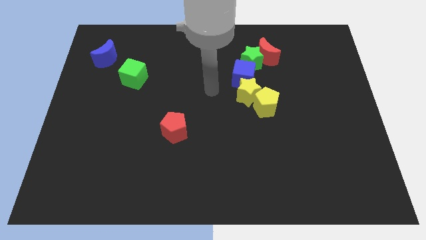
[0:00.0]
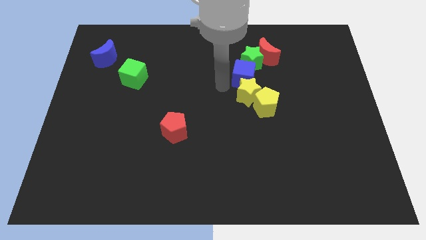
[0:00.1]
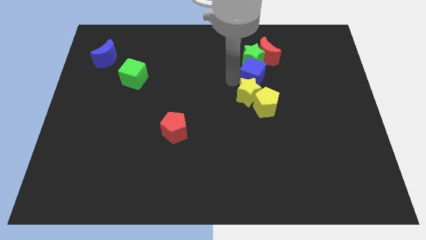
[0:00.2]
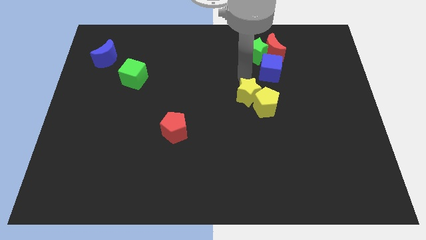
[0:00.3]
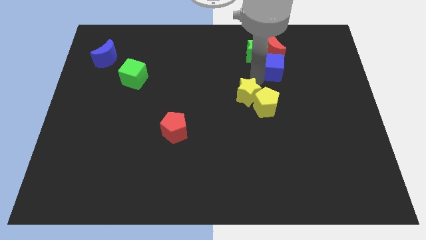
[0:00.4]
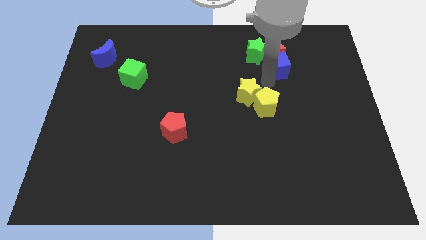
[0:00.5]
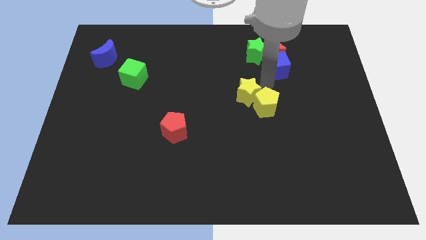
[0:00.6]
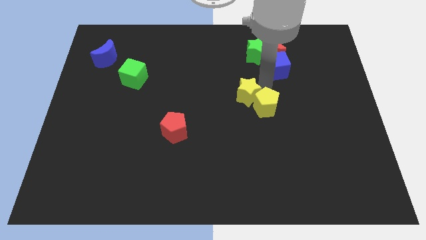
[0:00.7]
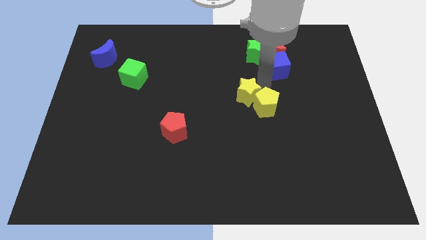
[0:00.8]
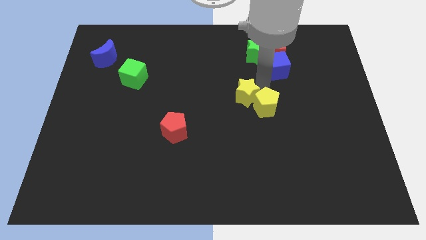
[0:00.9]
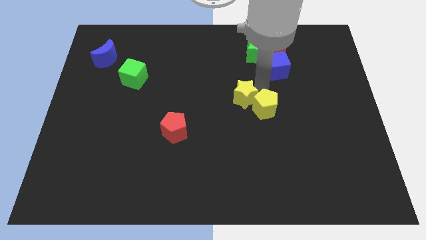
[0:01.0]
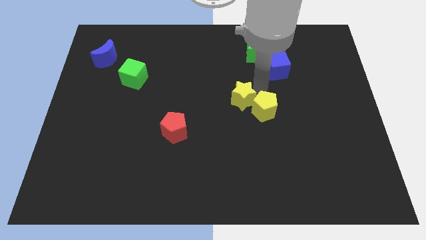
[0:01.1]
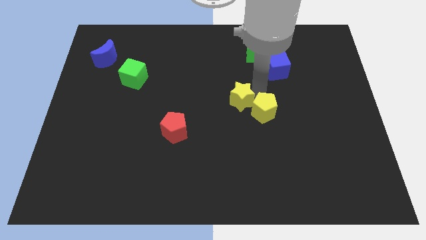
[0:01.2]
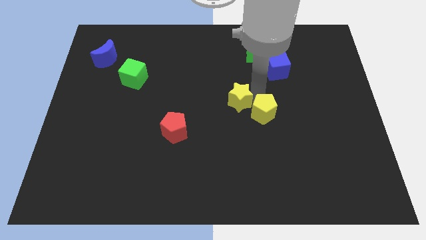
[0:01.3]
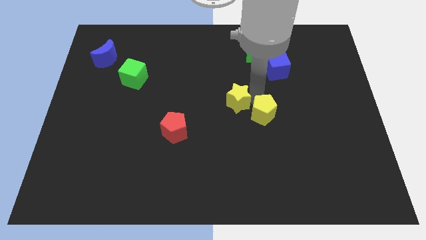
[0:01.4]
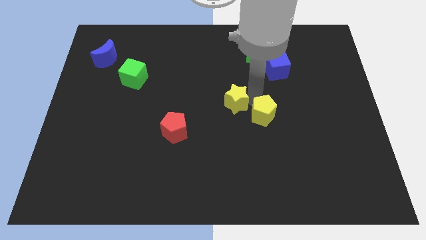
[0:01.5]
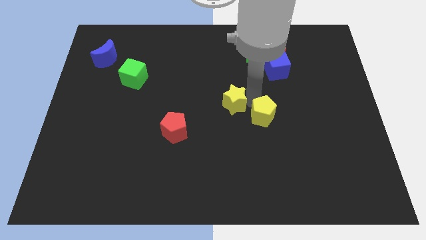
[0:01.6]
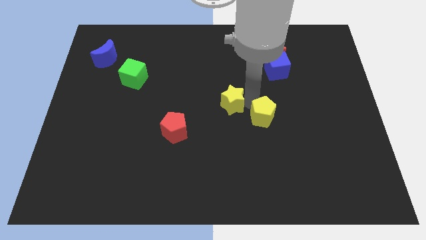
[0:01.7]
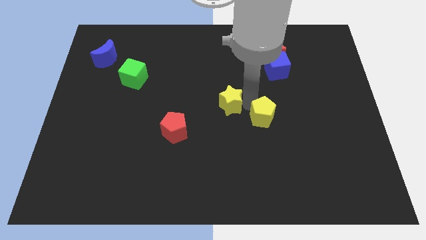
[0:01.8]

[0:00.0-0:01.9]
move the yellow star away from the yellow pentagon and blue cube

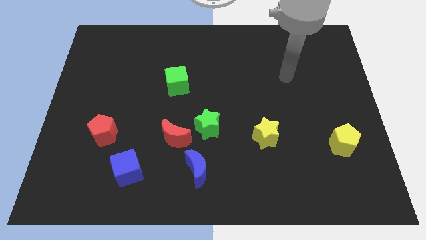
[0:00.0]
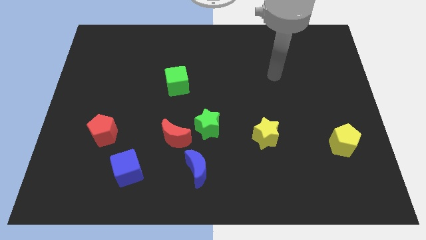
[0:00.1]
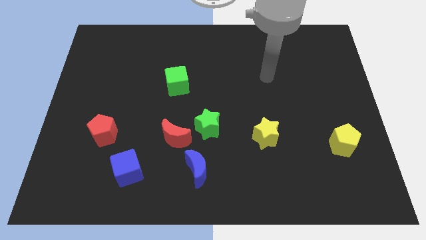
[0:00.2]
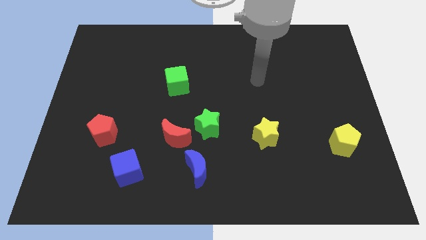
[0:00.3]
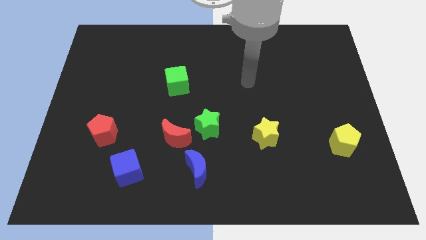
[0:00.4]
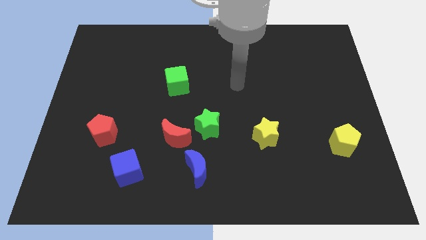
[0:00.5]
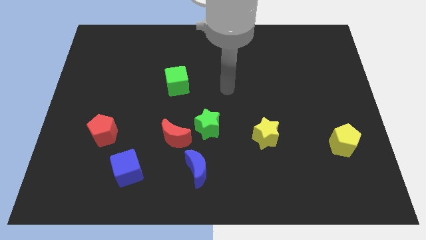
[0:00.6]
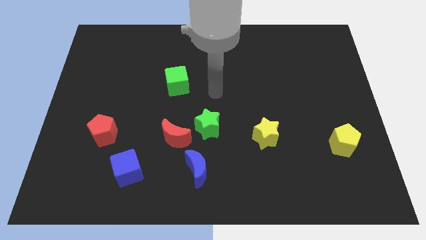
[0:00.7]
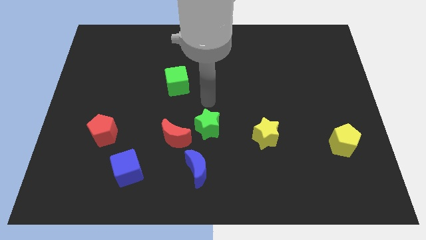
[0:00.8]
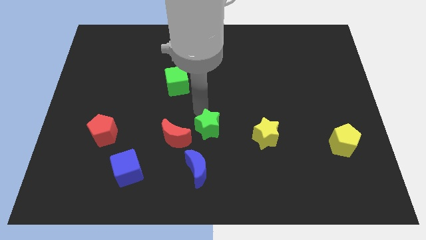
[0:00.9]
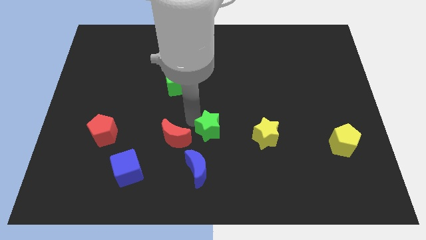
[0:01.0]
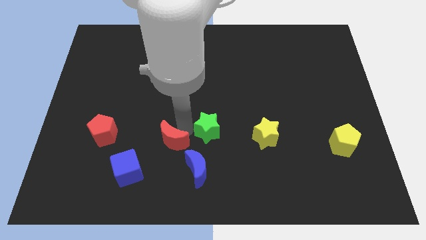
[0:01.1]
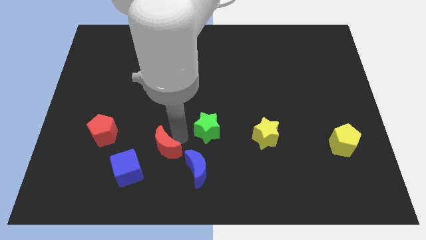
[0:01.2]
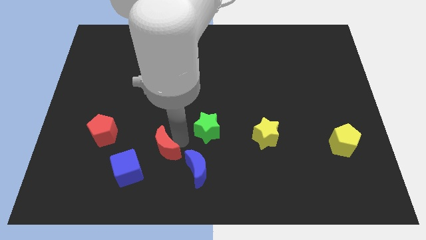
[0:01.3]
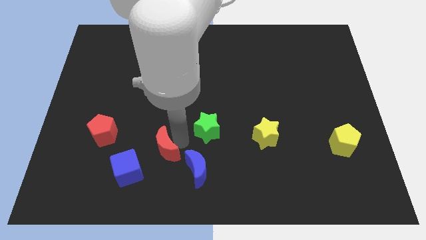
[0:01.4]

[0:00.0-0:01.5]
separate the green star from the red moon

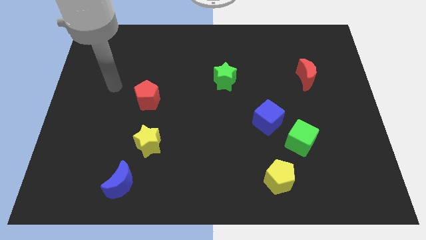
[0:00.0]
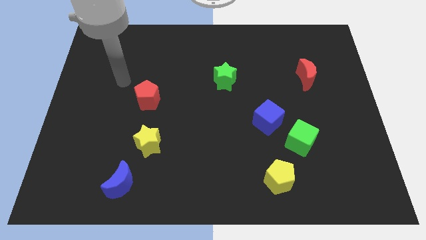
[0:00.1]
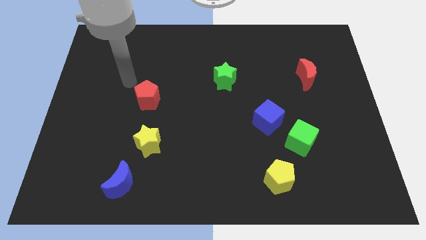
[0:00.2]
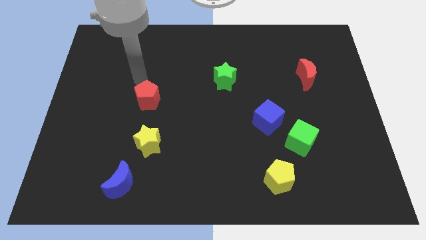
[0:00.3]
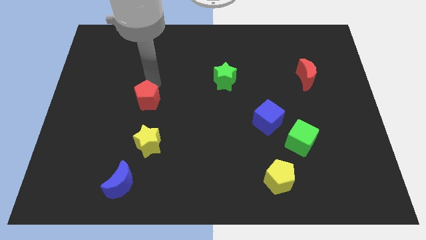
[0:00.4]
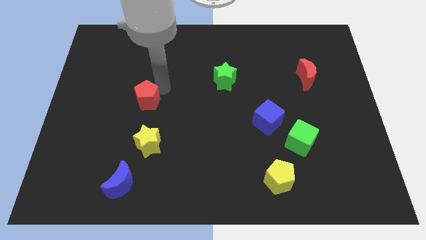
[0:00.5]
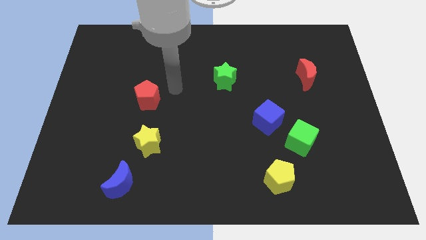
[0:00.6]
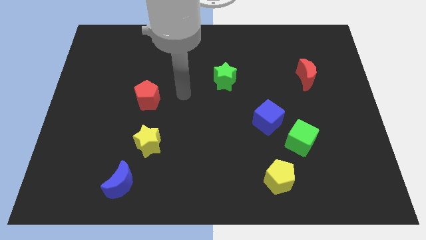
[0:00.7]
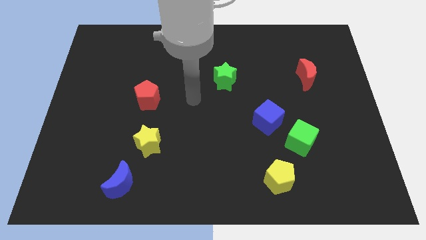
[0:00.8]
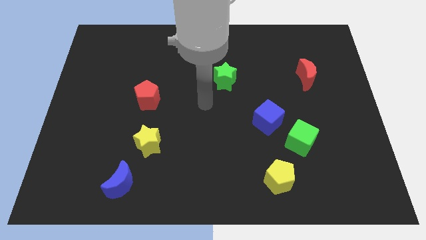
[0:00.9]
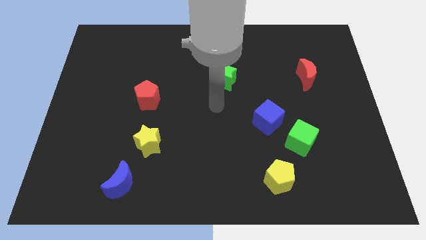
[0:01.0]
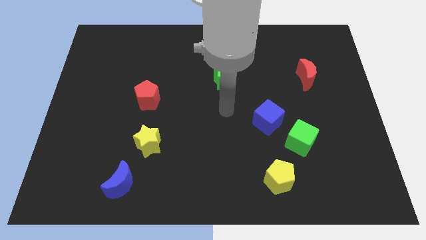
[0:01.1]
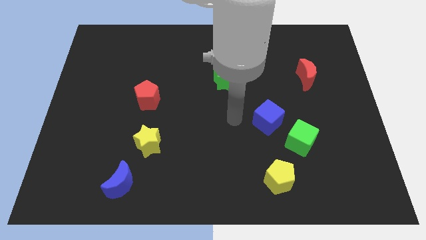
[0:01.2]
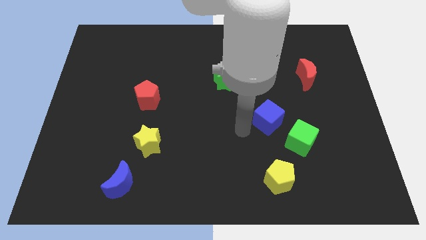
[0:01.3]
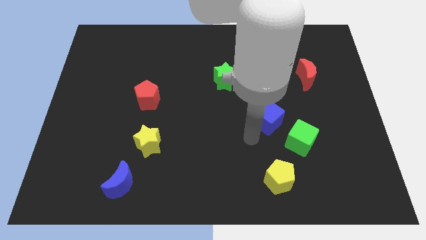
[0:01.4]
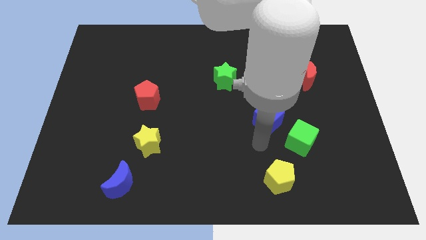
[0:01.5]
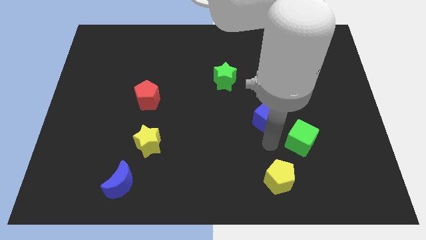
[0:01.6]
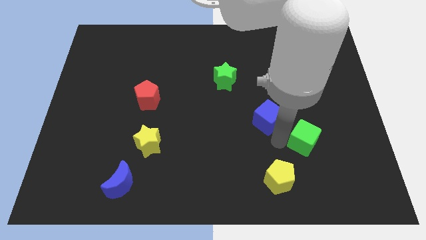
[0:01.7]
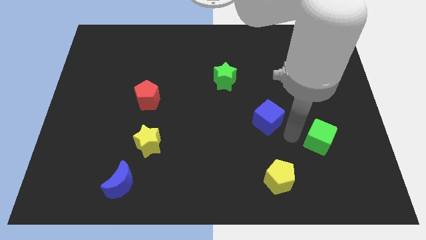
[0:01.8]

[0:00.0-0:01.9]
pull the blue cube apart from the green cube

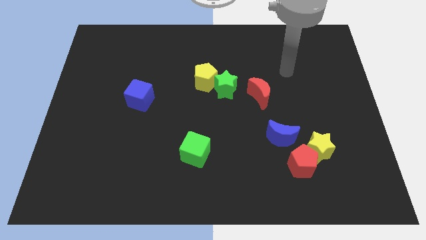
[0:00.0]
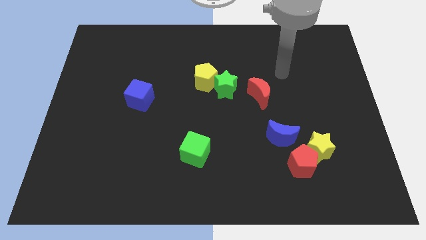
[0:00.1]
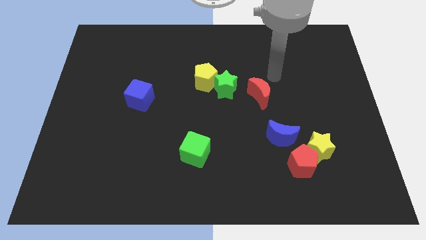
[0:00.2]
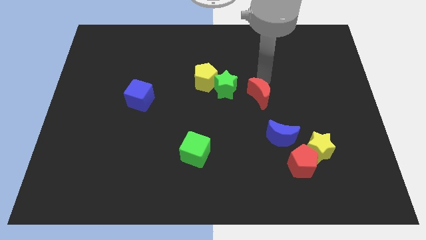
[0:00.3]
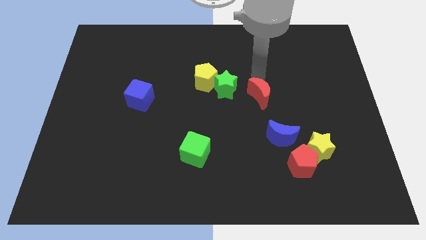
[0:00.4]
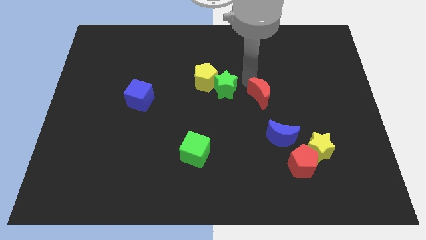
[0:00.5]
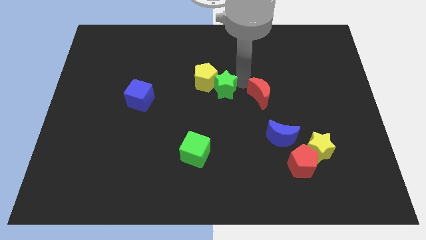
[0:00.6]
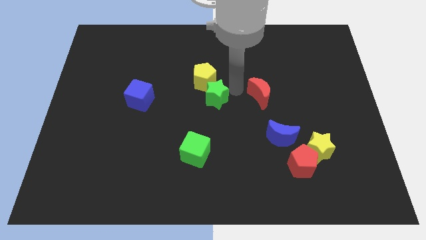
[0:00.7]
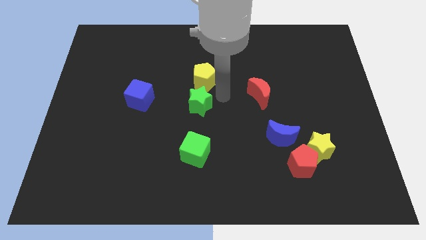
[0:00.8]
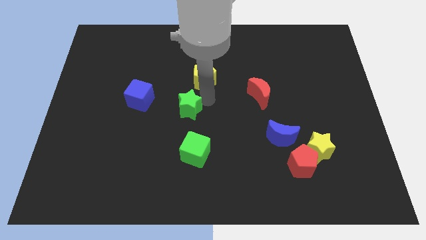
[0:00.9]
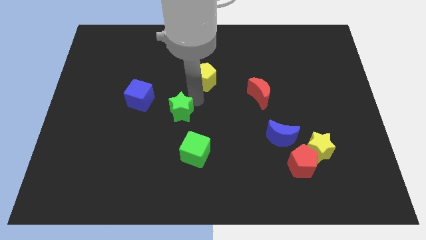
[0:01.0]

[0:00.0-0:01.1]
move the yellow pentagon away from the green star

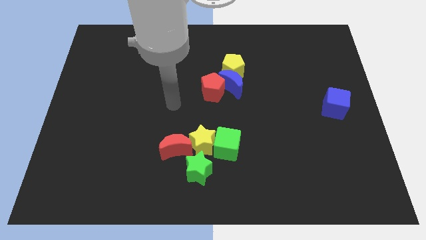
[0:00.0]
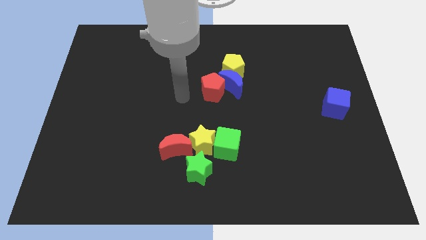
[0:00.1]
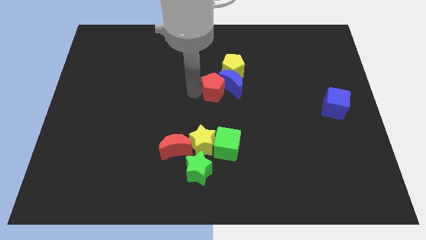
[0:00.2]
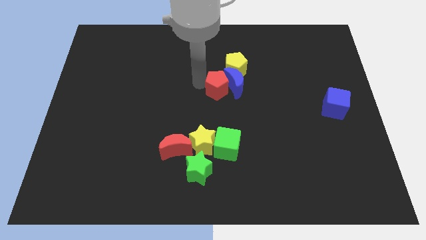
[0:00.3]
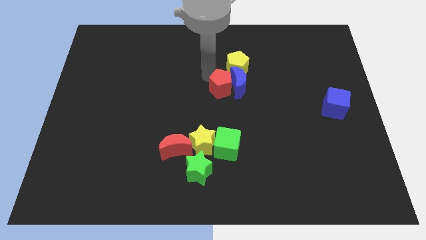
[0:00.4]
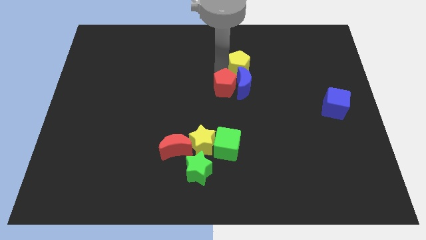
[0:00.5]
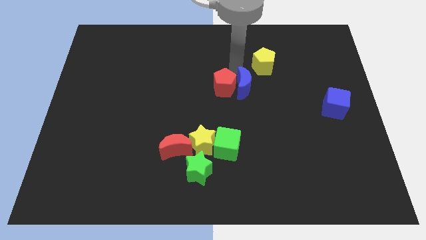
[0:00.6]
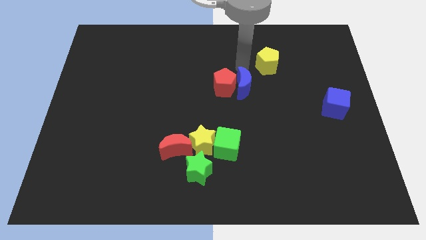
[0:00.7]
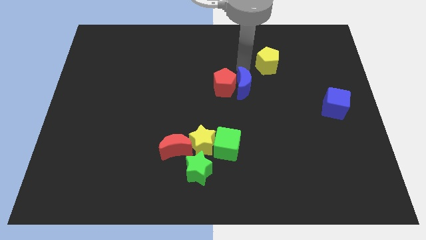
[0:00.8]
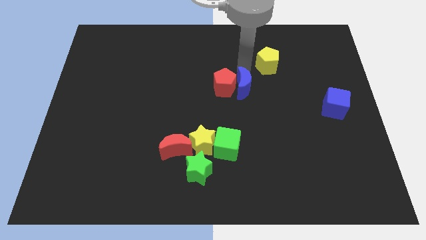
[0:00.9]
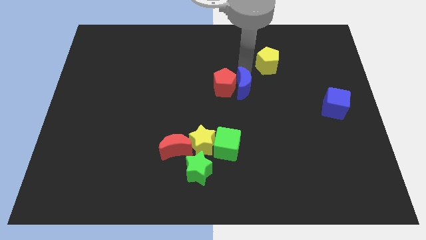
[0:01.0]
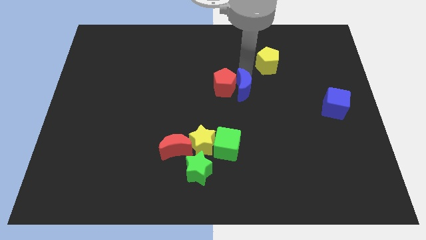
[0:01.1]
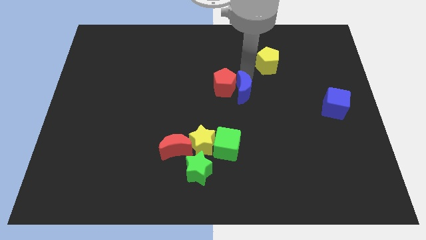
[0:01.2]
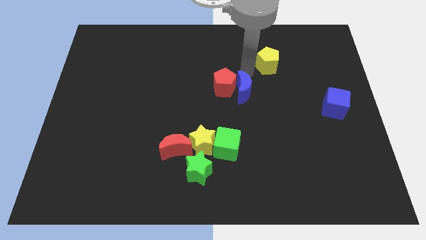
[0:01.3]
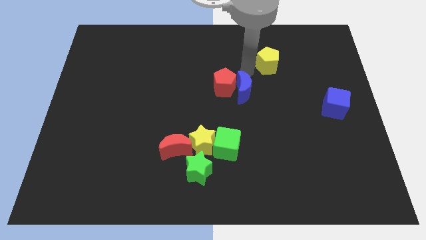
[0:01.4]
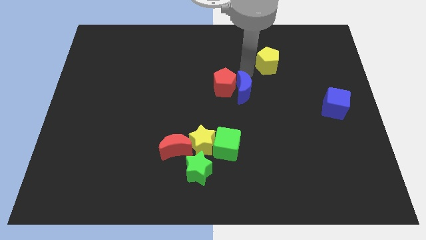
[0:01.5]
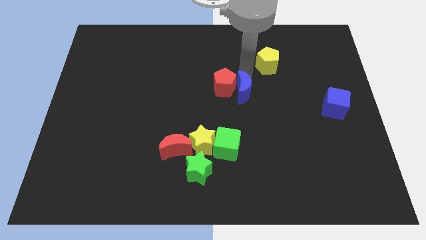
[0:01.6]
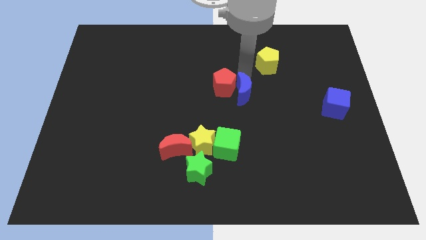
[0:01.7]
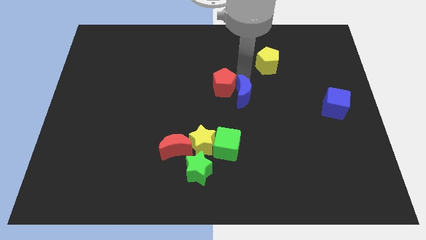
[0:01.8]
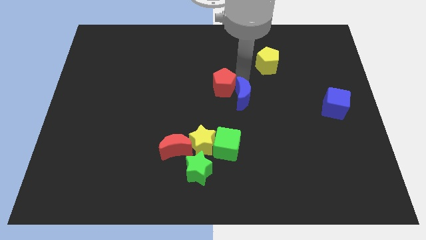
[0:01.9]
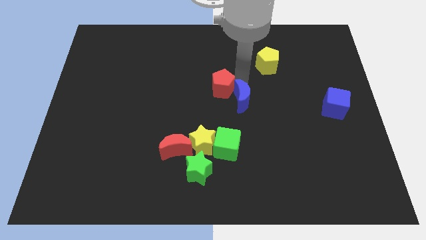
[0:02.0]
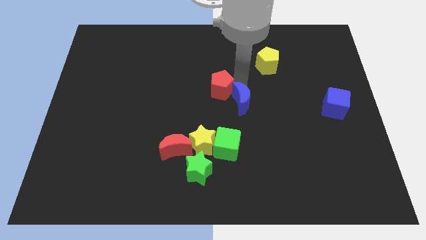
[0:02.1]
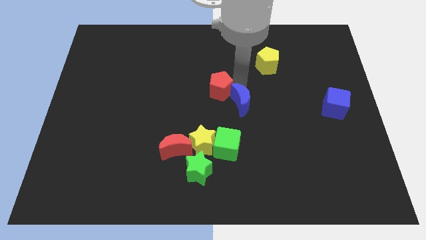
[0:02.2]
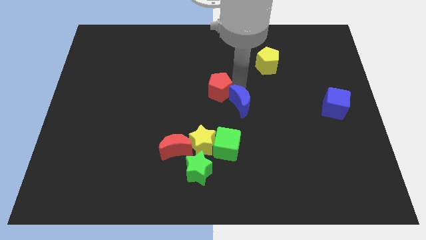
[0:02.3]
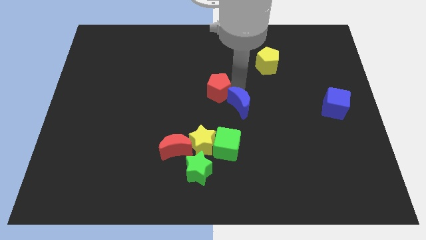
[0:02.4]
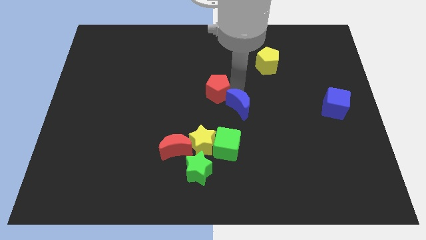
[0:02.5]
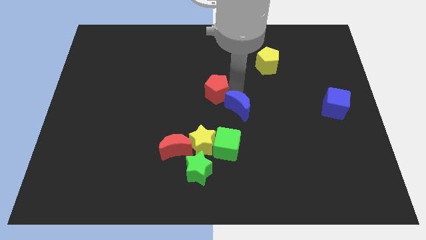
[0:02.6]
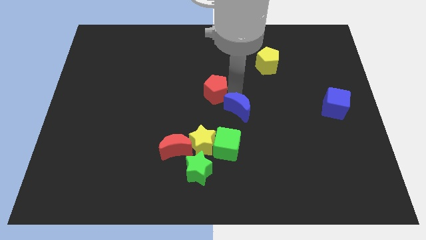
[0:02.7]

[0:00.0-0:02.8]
move the blue moon away from the red pentagon and yellow pentagon
